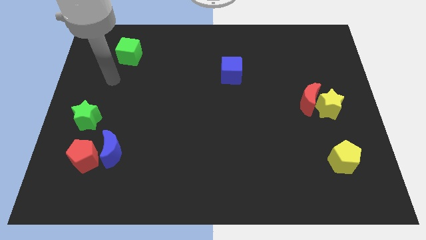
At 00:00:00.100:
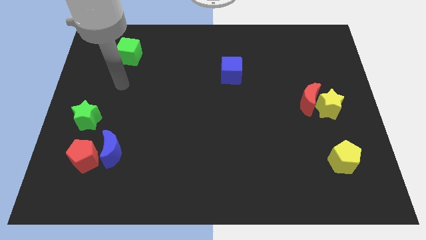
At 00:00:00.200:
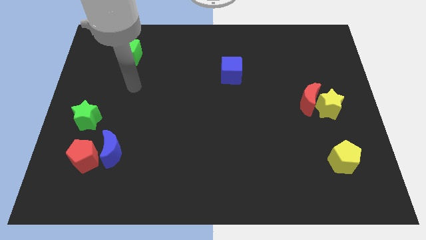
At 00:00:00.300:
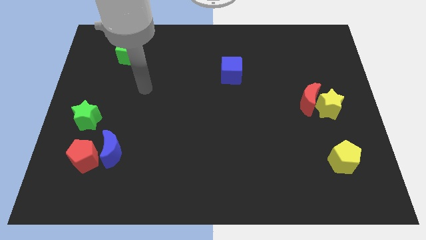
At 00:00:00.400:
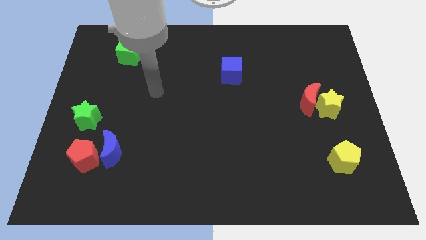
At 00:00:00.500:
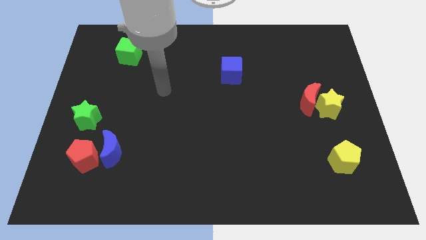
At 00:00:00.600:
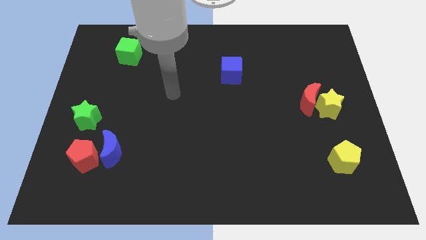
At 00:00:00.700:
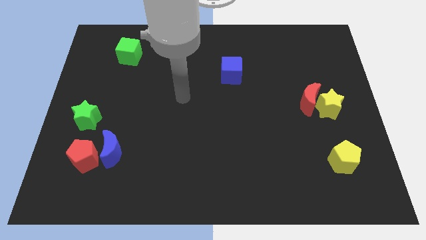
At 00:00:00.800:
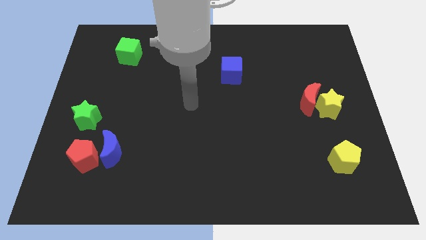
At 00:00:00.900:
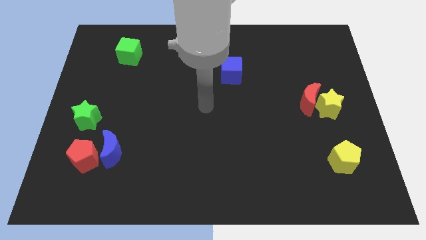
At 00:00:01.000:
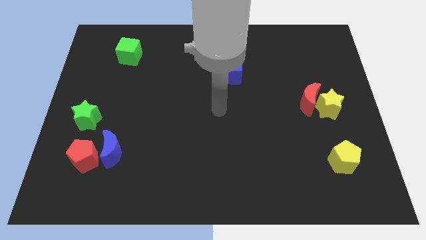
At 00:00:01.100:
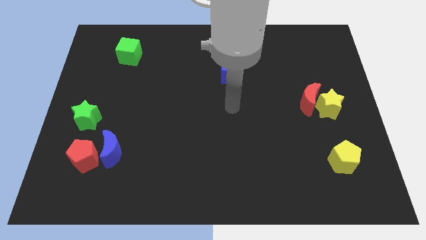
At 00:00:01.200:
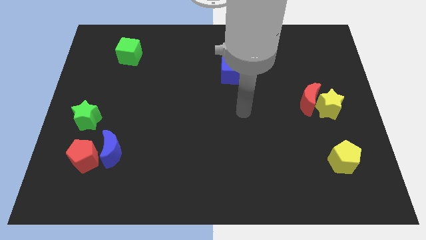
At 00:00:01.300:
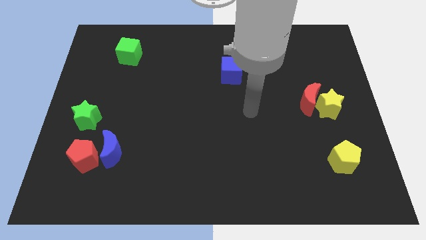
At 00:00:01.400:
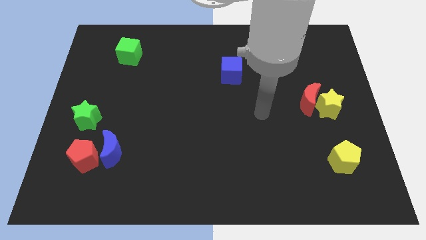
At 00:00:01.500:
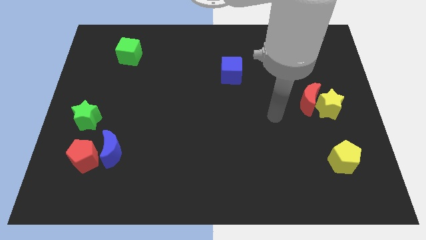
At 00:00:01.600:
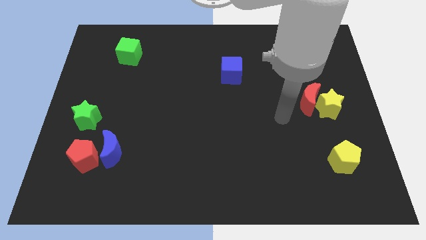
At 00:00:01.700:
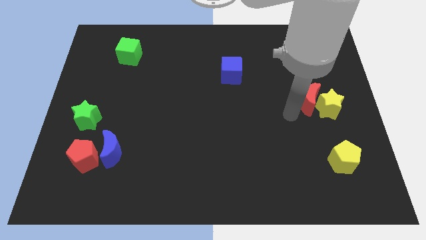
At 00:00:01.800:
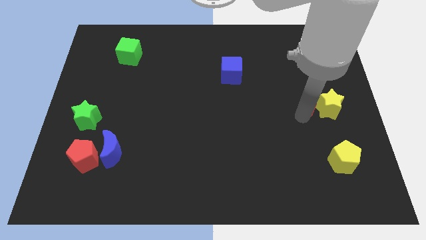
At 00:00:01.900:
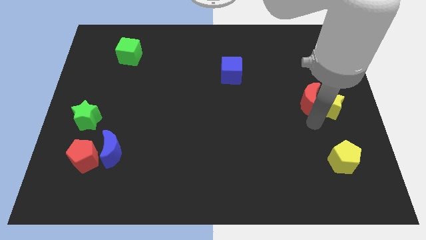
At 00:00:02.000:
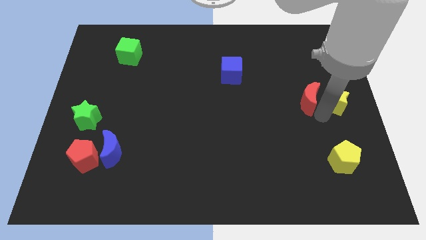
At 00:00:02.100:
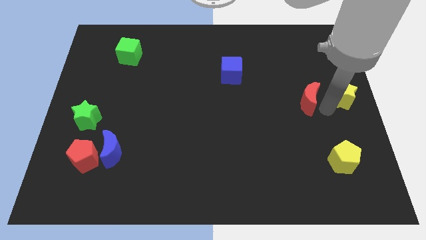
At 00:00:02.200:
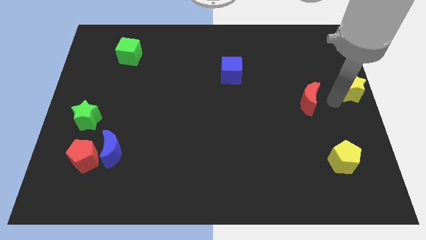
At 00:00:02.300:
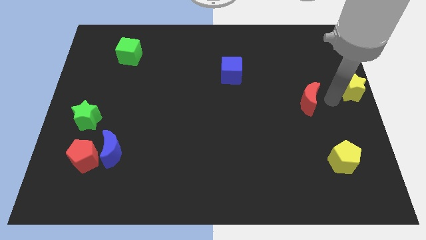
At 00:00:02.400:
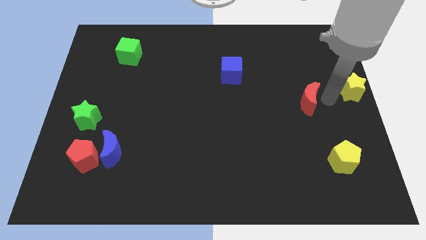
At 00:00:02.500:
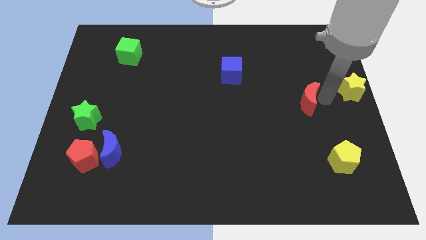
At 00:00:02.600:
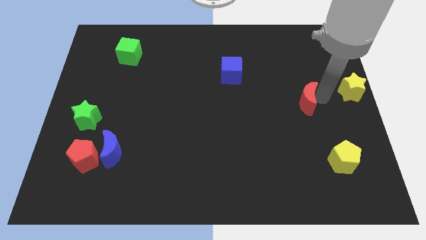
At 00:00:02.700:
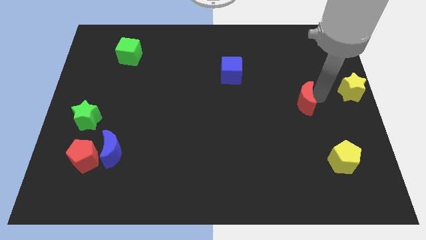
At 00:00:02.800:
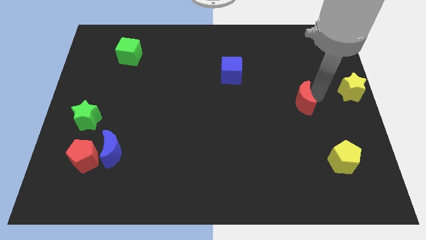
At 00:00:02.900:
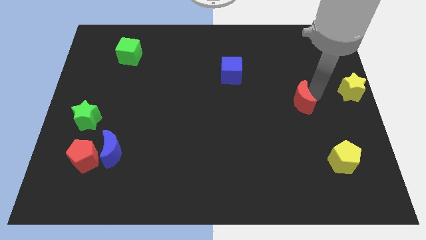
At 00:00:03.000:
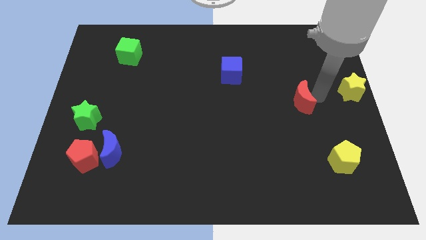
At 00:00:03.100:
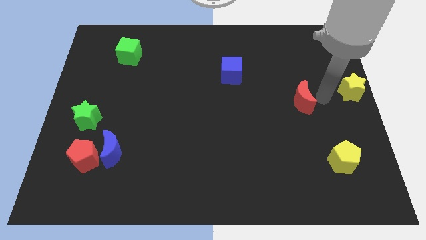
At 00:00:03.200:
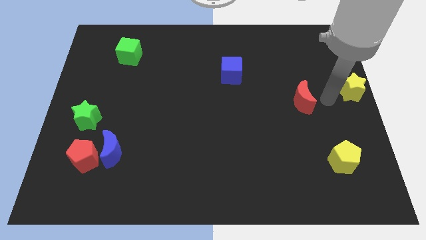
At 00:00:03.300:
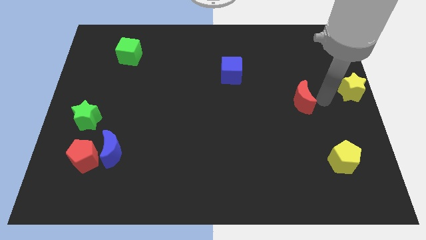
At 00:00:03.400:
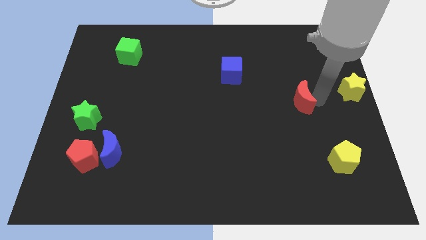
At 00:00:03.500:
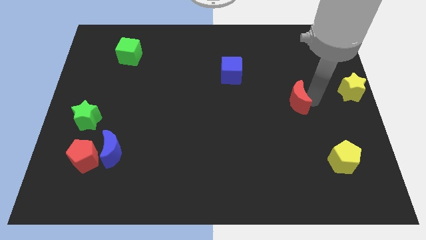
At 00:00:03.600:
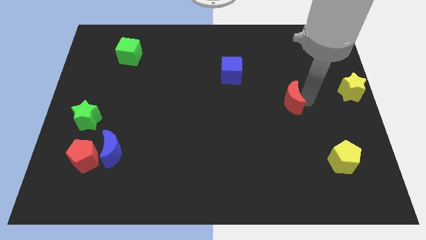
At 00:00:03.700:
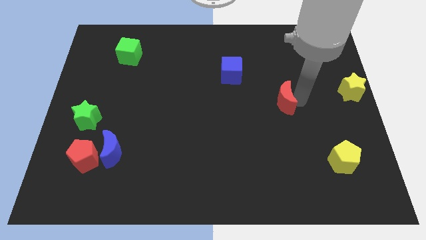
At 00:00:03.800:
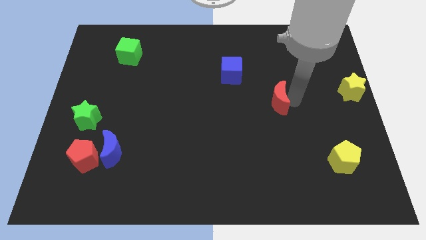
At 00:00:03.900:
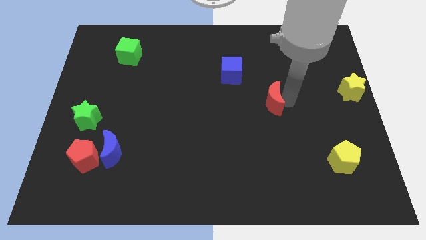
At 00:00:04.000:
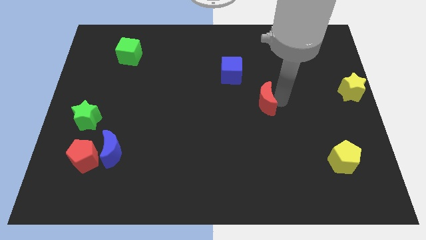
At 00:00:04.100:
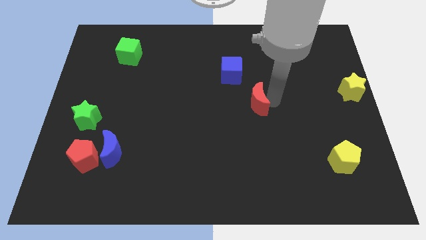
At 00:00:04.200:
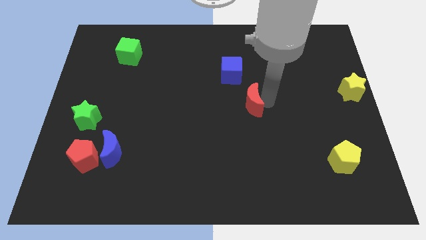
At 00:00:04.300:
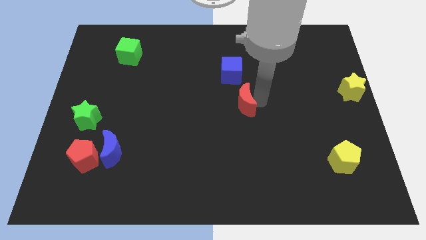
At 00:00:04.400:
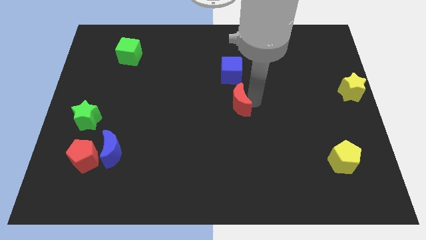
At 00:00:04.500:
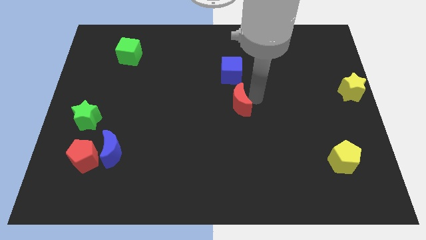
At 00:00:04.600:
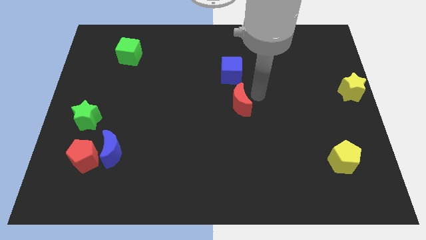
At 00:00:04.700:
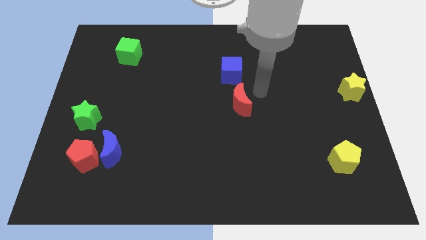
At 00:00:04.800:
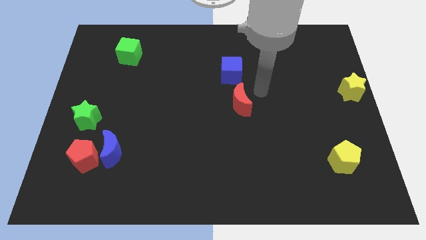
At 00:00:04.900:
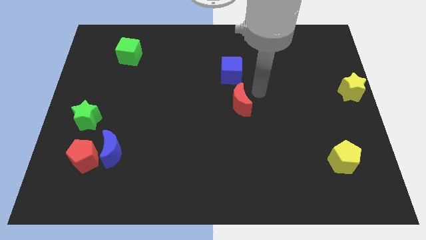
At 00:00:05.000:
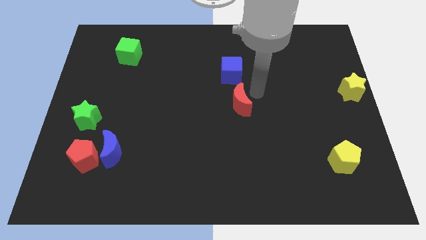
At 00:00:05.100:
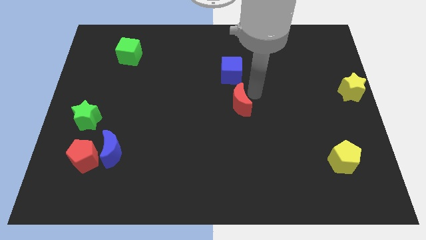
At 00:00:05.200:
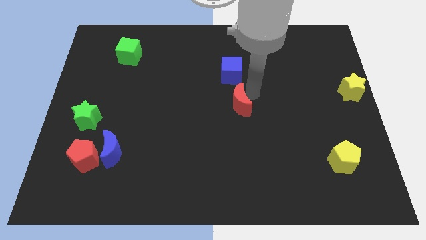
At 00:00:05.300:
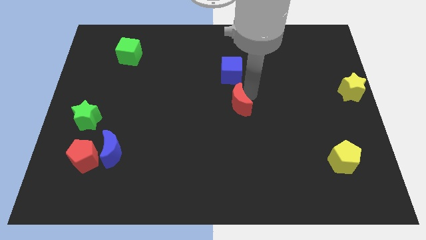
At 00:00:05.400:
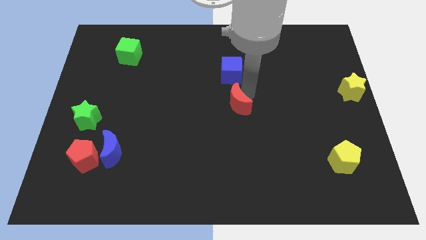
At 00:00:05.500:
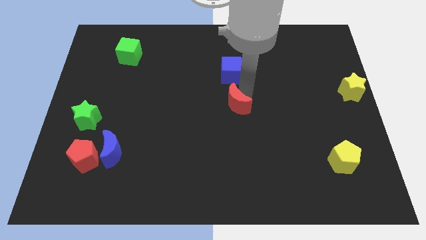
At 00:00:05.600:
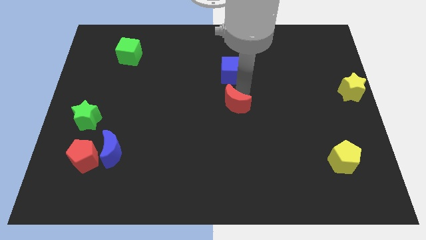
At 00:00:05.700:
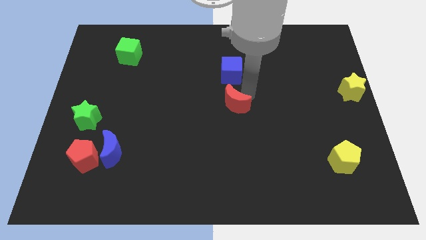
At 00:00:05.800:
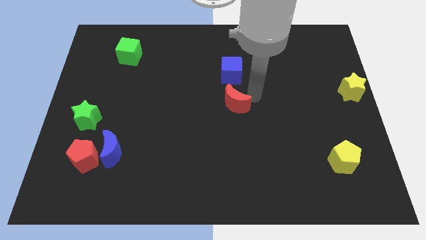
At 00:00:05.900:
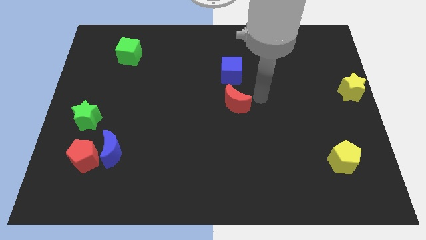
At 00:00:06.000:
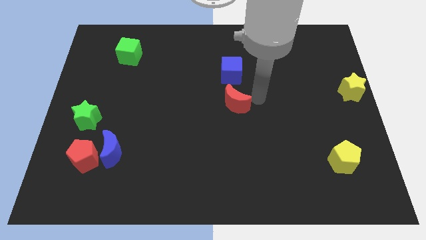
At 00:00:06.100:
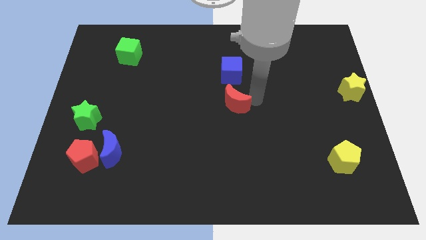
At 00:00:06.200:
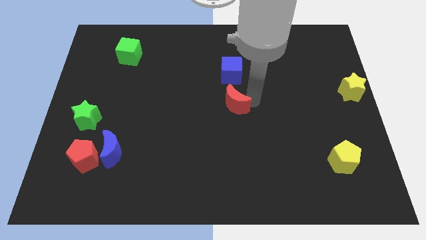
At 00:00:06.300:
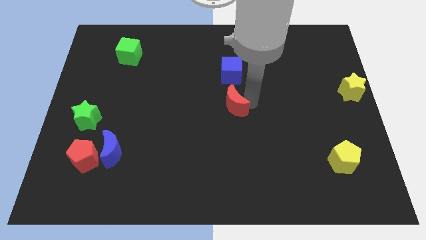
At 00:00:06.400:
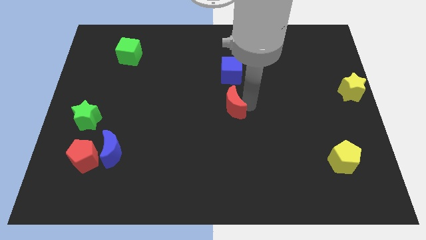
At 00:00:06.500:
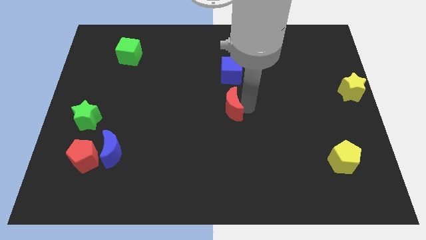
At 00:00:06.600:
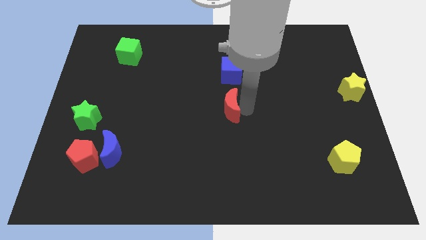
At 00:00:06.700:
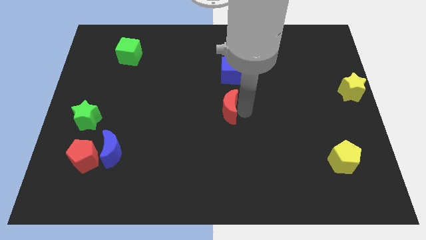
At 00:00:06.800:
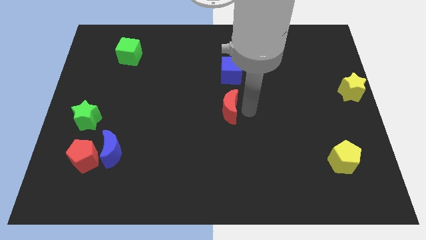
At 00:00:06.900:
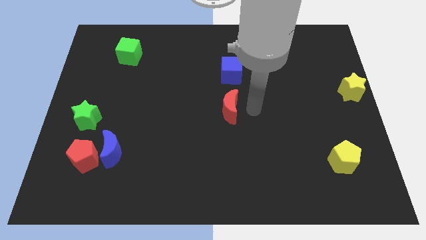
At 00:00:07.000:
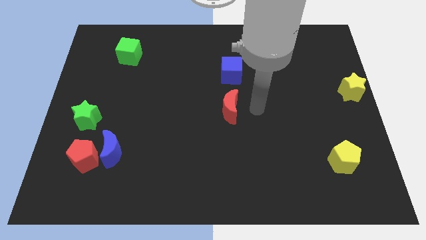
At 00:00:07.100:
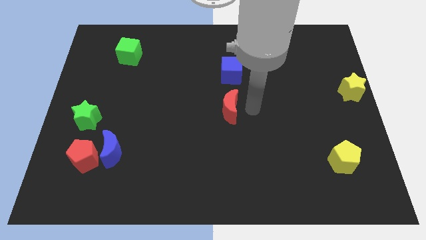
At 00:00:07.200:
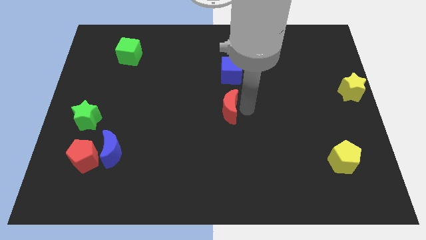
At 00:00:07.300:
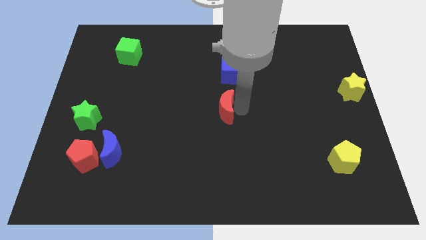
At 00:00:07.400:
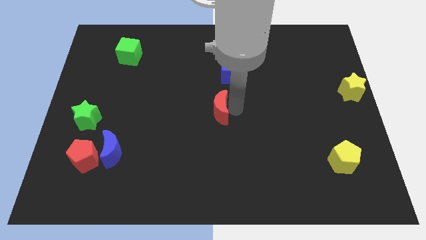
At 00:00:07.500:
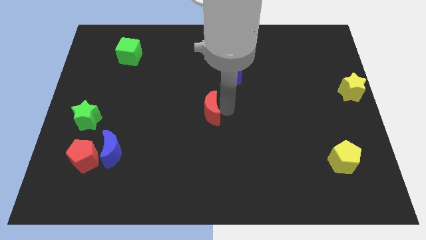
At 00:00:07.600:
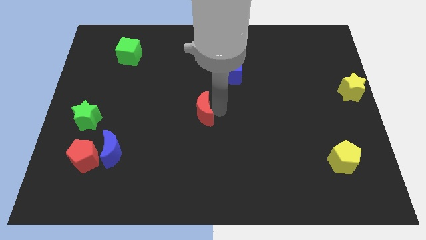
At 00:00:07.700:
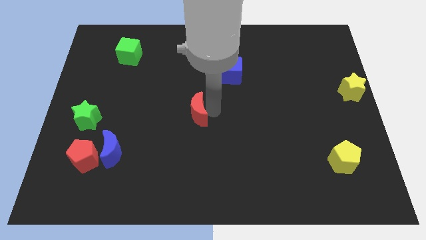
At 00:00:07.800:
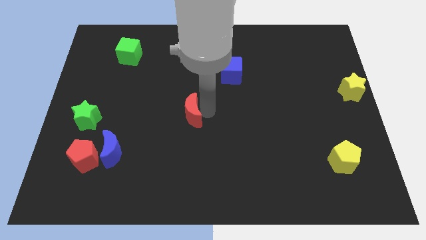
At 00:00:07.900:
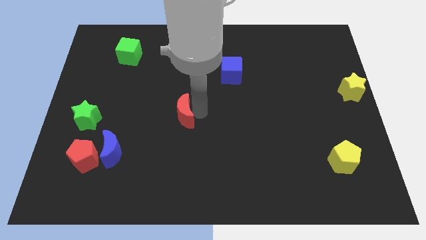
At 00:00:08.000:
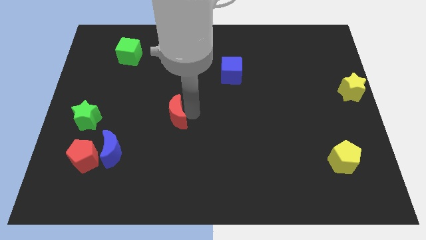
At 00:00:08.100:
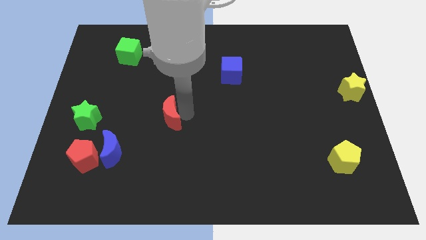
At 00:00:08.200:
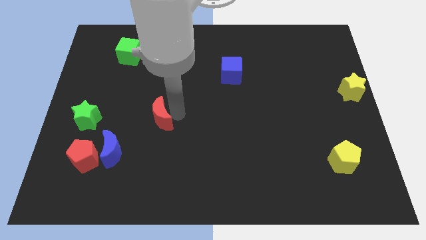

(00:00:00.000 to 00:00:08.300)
move the red moon to the top right side of the blue moon
